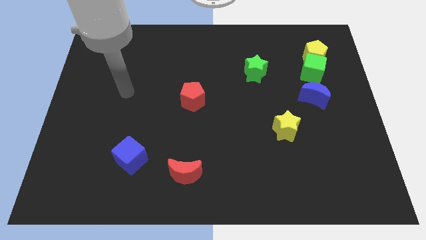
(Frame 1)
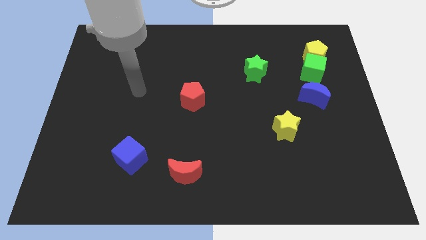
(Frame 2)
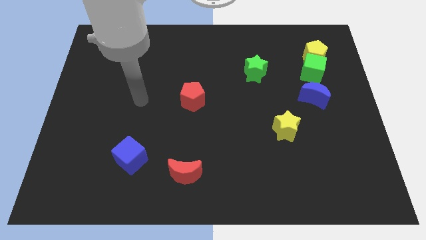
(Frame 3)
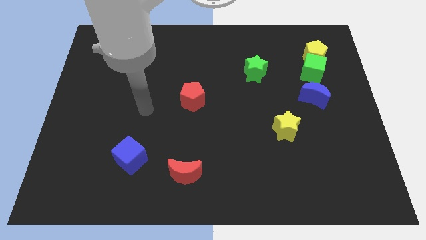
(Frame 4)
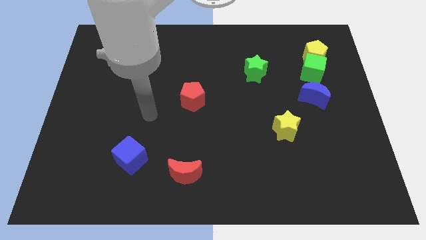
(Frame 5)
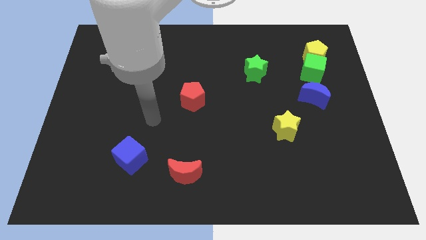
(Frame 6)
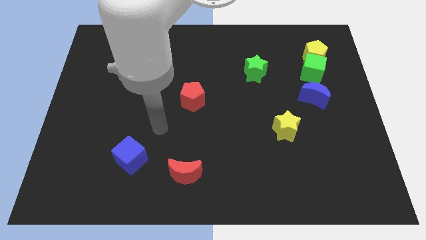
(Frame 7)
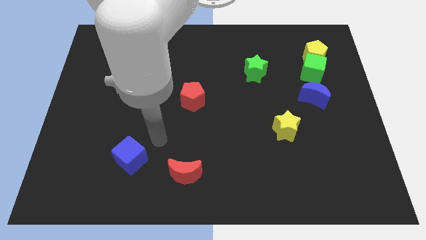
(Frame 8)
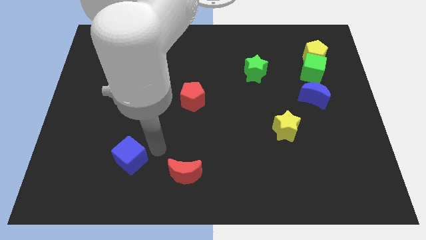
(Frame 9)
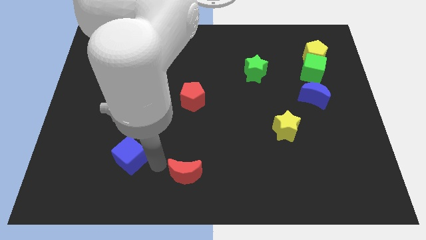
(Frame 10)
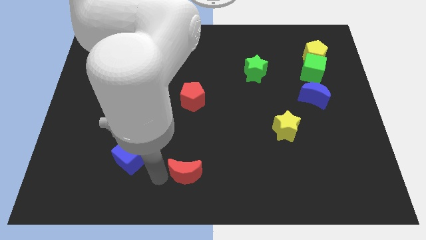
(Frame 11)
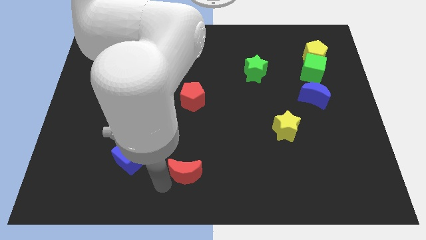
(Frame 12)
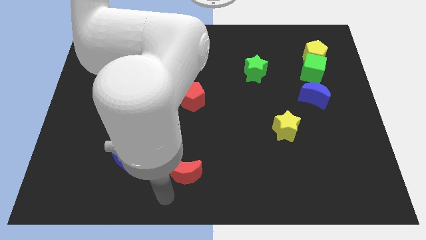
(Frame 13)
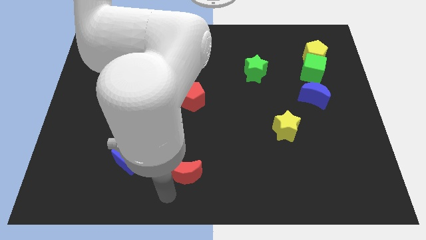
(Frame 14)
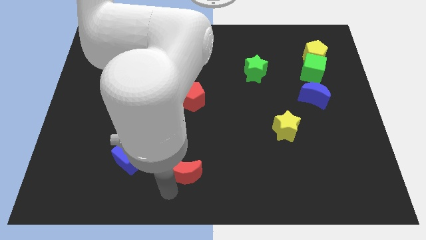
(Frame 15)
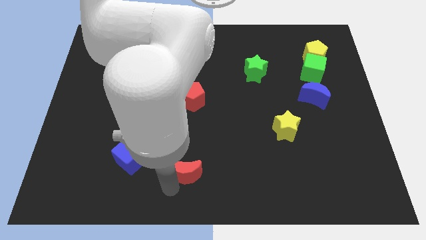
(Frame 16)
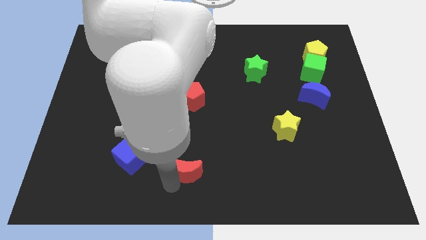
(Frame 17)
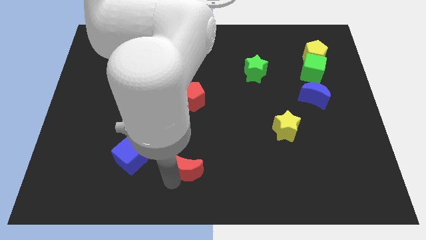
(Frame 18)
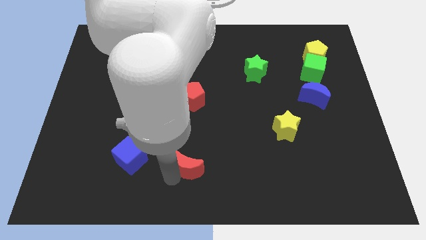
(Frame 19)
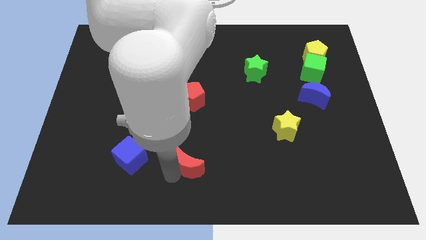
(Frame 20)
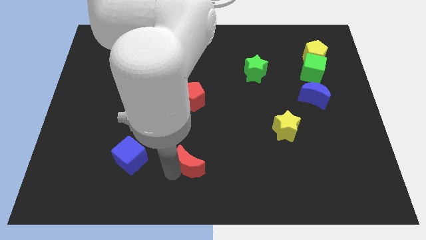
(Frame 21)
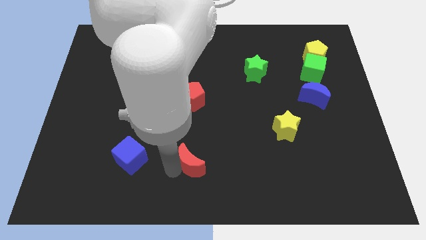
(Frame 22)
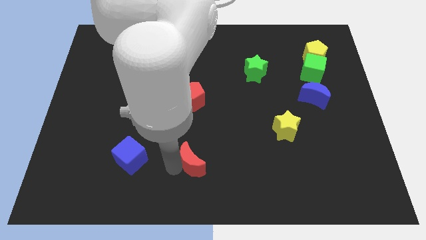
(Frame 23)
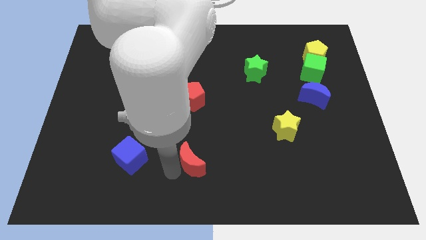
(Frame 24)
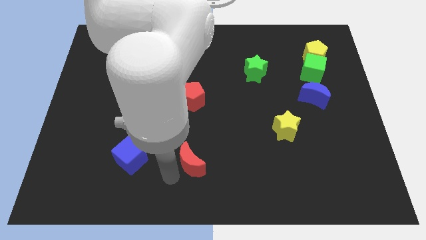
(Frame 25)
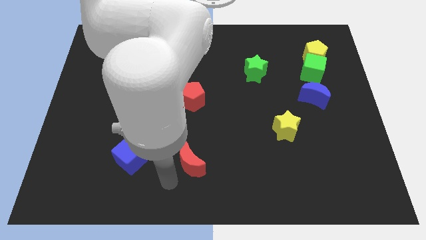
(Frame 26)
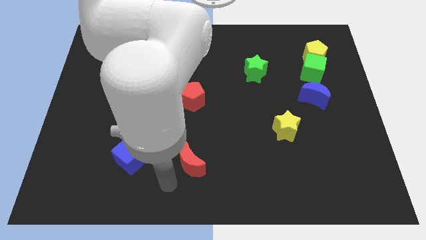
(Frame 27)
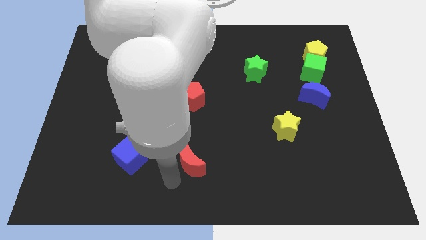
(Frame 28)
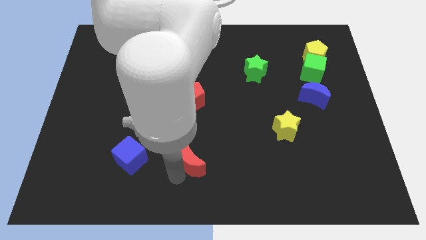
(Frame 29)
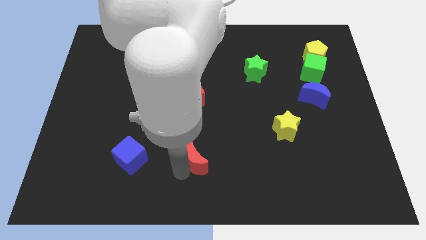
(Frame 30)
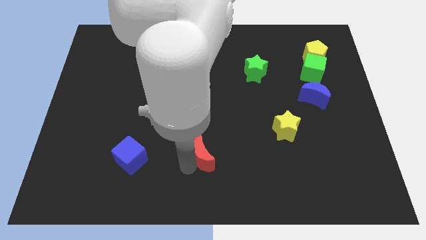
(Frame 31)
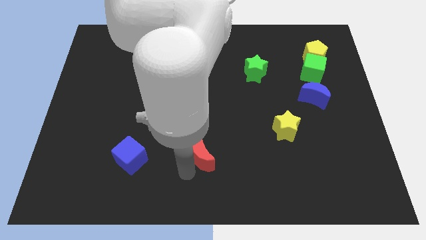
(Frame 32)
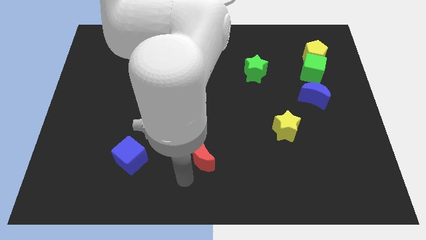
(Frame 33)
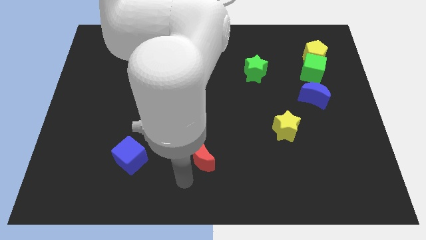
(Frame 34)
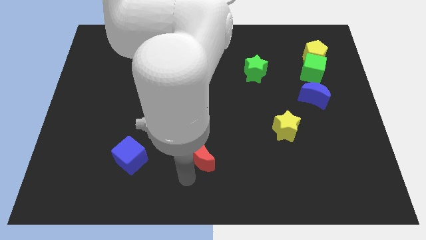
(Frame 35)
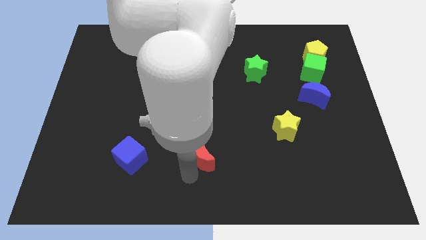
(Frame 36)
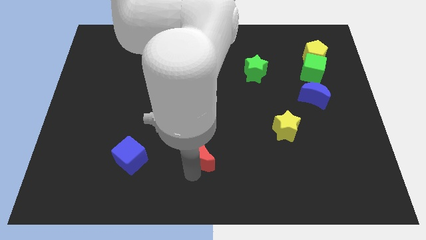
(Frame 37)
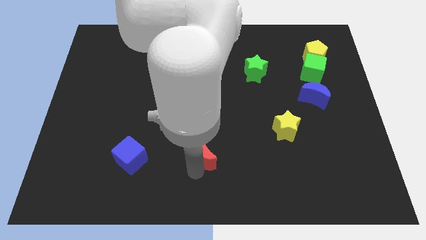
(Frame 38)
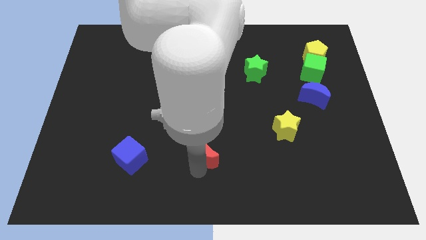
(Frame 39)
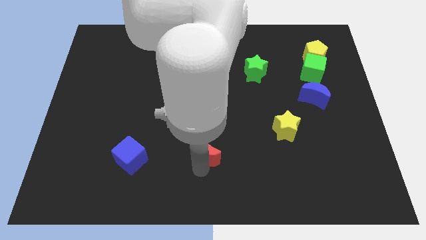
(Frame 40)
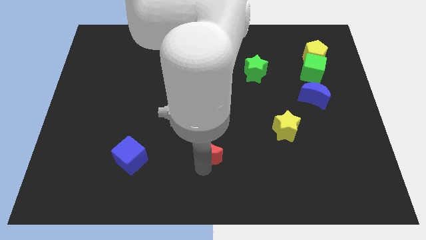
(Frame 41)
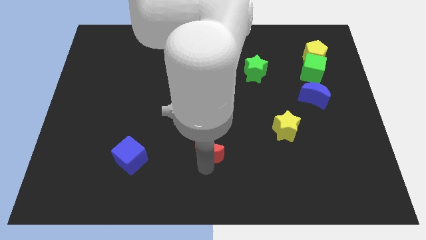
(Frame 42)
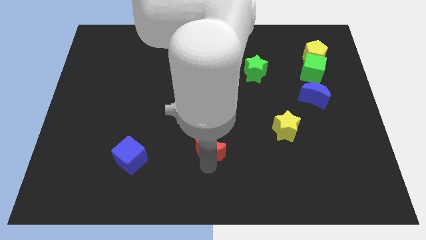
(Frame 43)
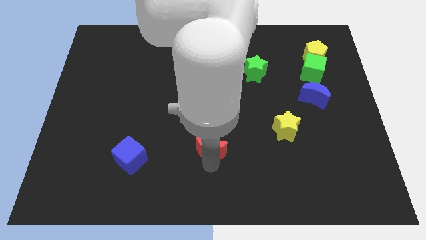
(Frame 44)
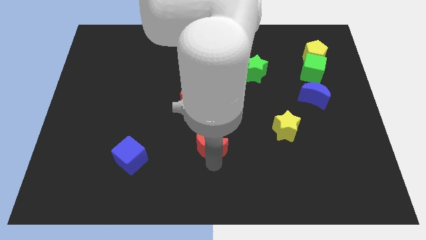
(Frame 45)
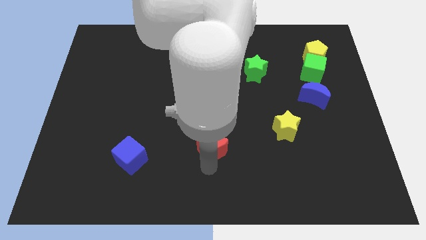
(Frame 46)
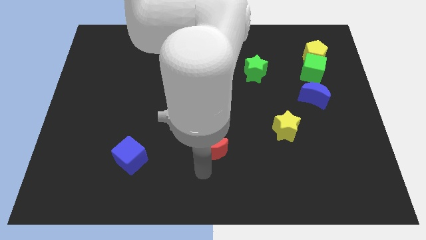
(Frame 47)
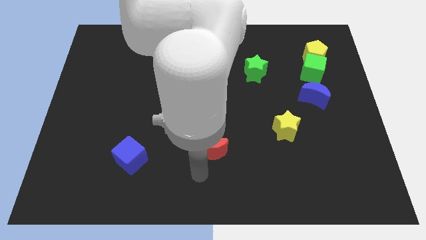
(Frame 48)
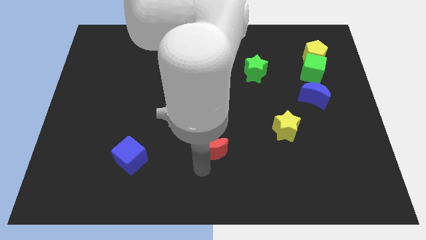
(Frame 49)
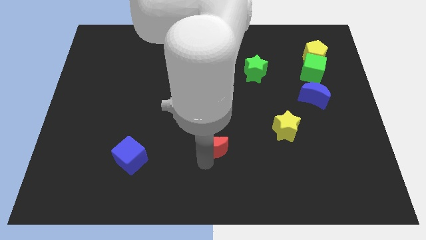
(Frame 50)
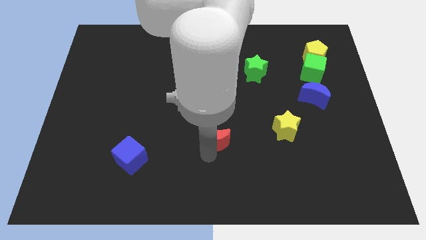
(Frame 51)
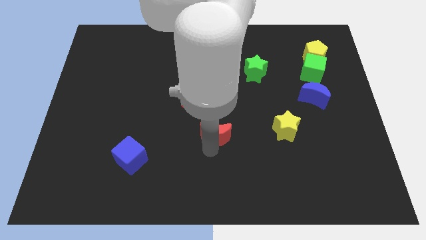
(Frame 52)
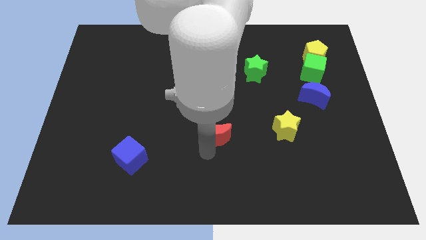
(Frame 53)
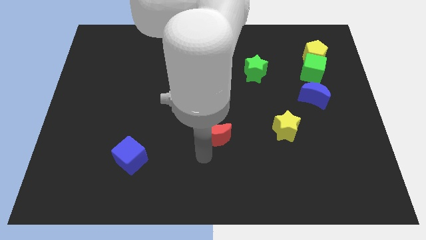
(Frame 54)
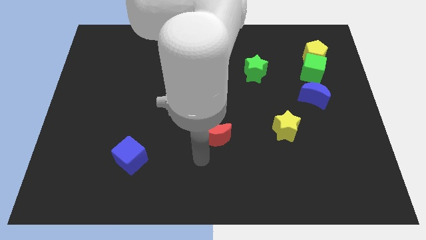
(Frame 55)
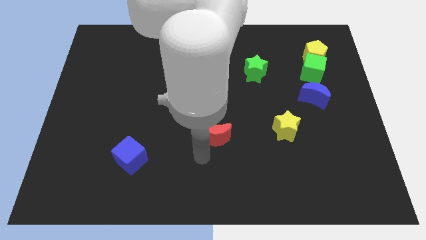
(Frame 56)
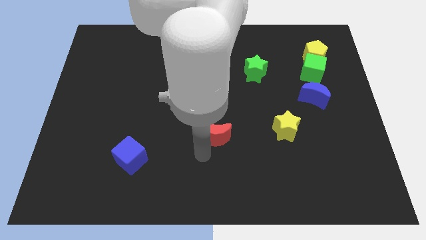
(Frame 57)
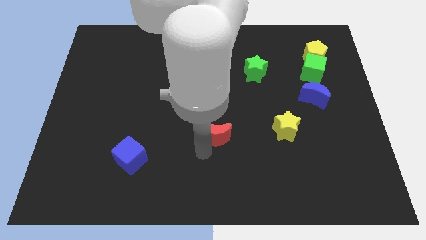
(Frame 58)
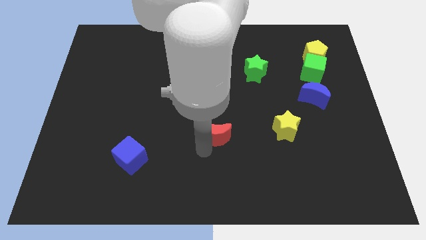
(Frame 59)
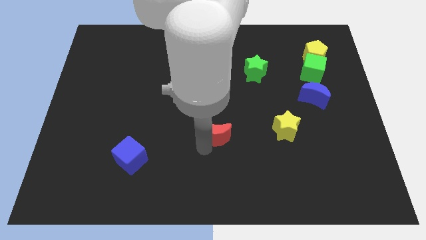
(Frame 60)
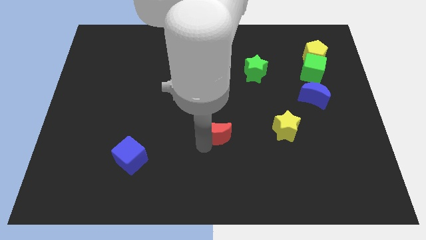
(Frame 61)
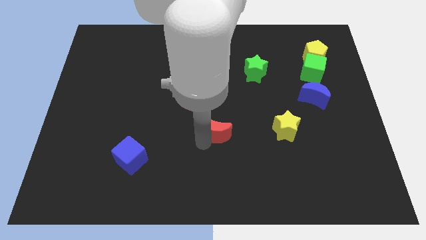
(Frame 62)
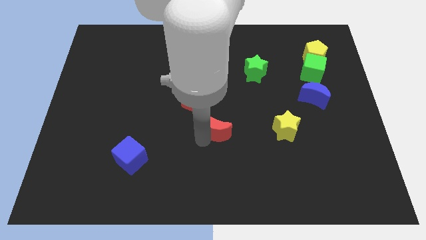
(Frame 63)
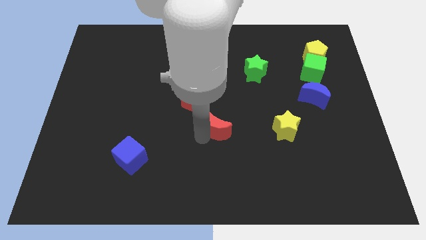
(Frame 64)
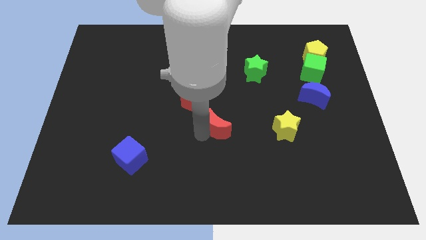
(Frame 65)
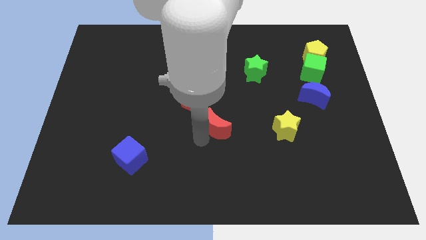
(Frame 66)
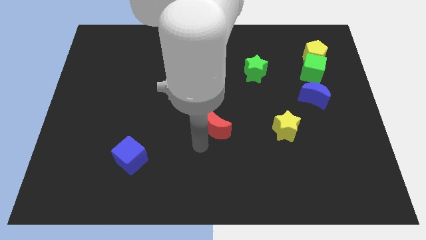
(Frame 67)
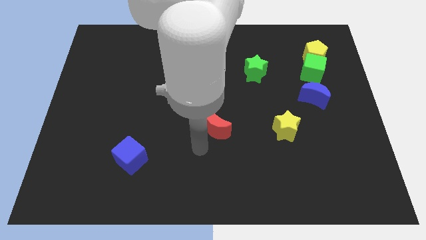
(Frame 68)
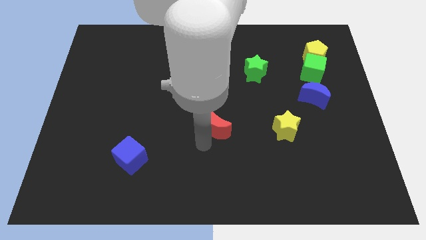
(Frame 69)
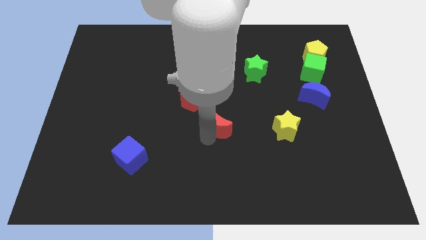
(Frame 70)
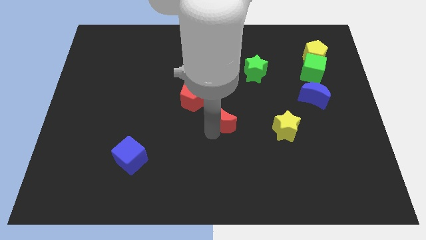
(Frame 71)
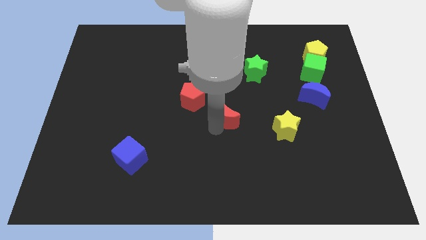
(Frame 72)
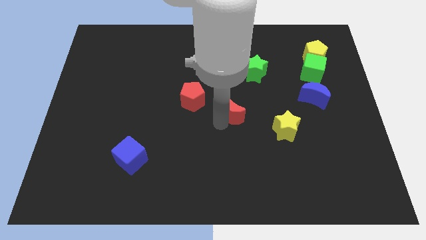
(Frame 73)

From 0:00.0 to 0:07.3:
slide the red moon right of the red pentagon
